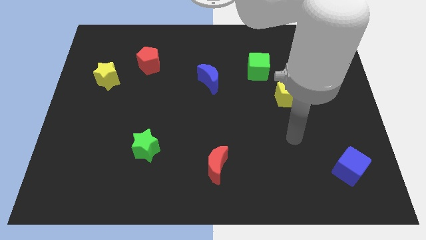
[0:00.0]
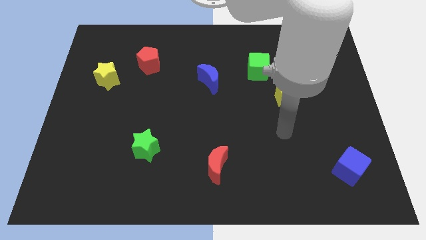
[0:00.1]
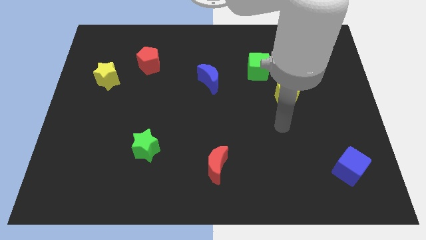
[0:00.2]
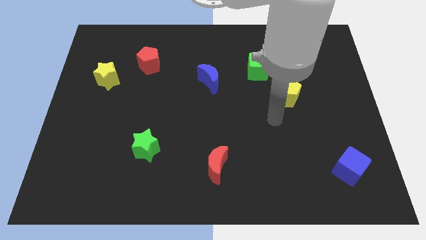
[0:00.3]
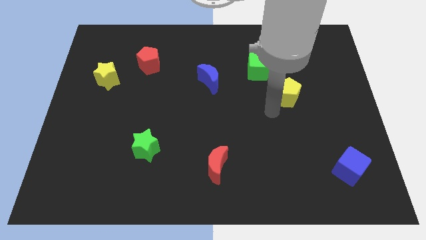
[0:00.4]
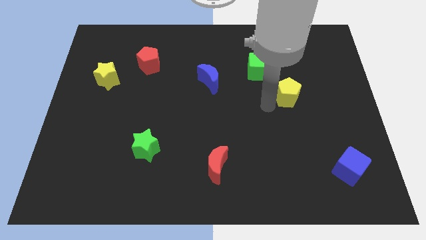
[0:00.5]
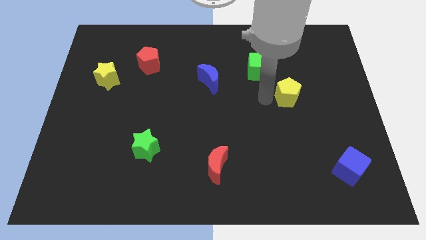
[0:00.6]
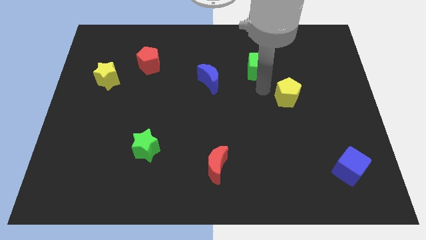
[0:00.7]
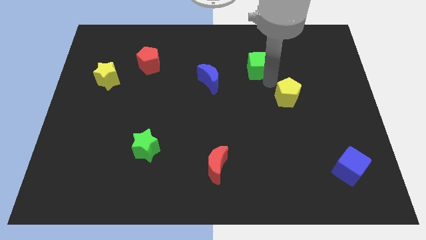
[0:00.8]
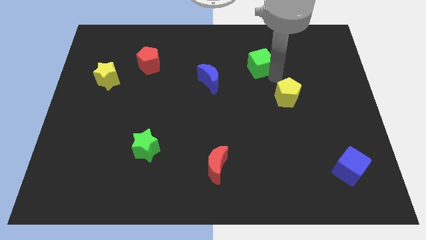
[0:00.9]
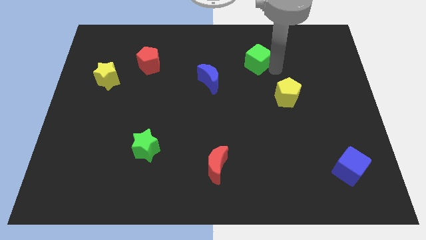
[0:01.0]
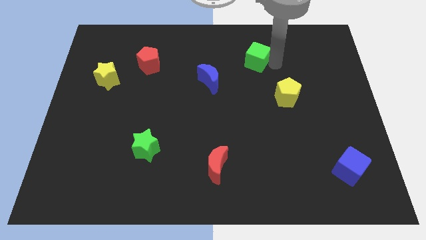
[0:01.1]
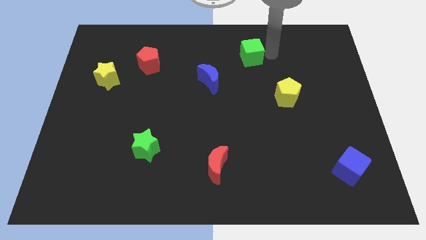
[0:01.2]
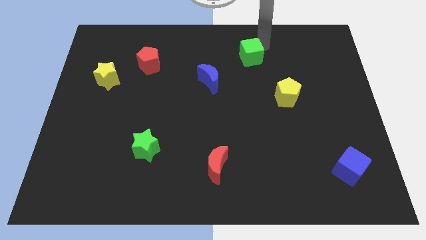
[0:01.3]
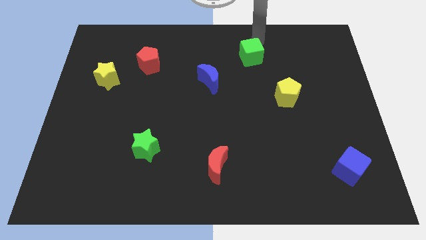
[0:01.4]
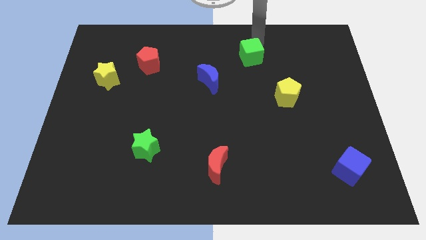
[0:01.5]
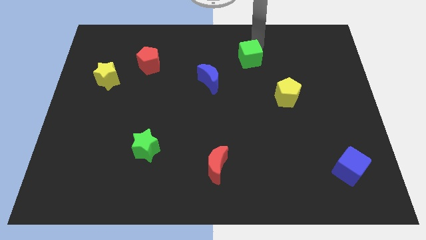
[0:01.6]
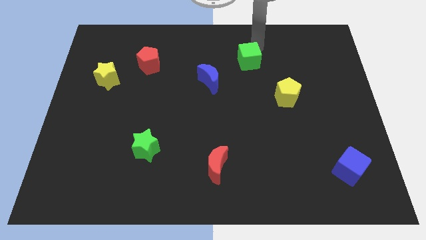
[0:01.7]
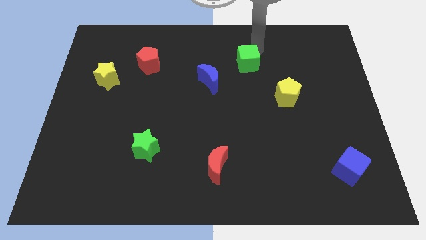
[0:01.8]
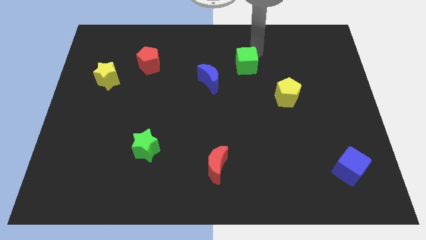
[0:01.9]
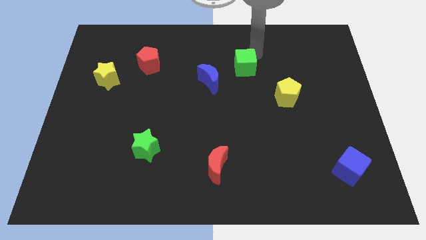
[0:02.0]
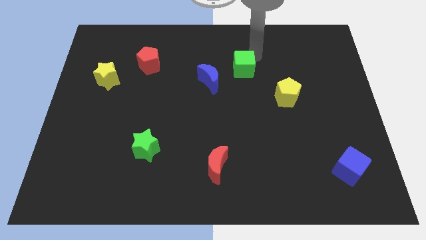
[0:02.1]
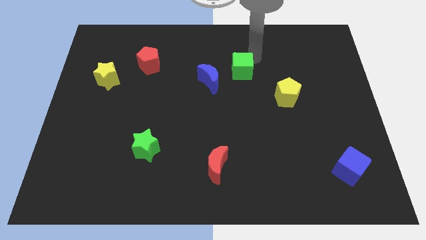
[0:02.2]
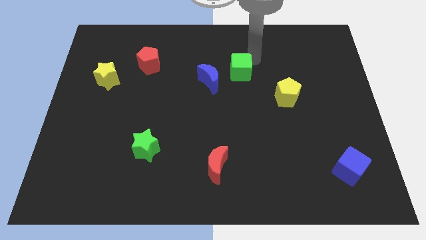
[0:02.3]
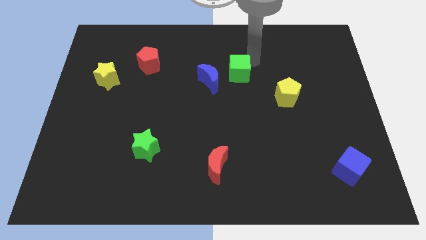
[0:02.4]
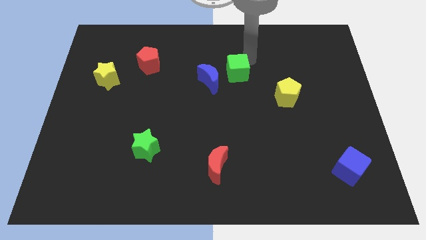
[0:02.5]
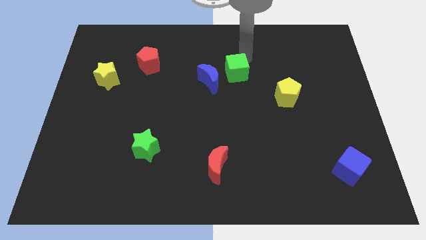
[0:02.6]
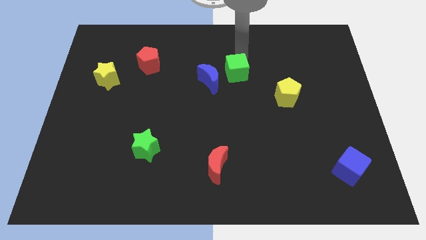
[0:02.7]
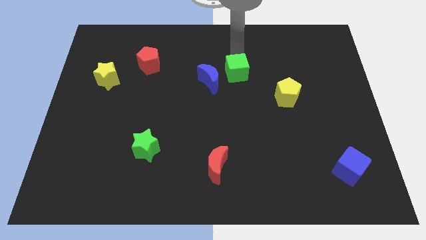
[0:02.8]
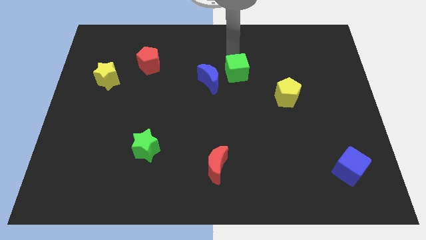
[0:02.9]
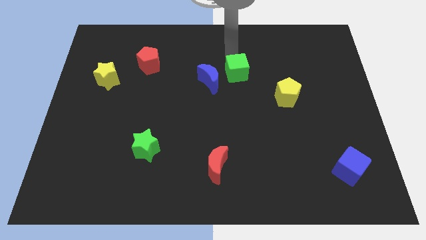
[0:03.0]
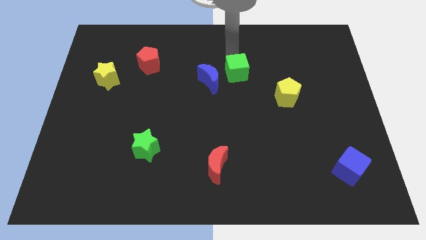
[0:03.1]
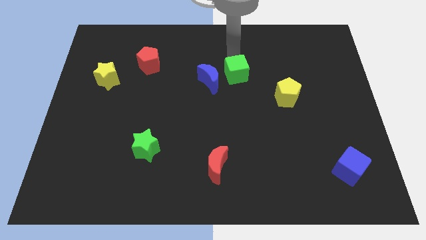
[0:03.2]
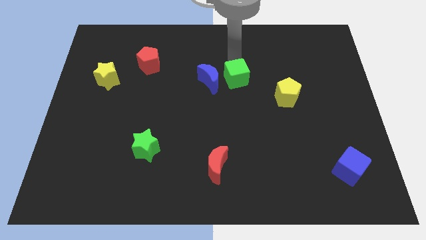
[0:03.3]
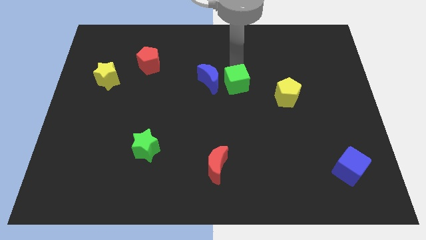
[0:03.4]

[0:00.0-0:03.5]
move the green cube diagonally downwards and left a little bit

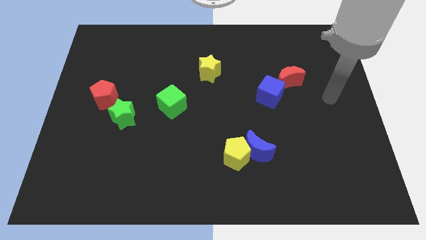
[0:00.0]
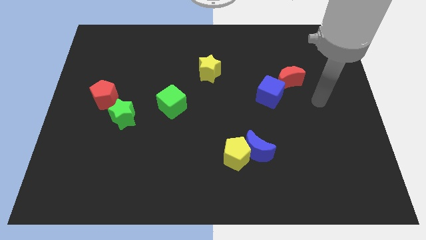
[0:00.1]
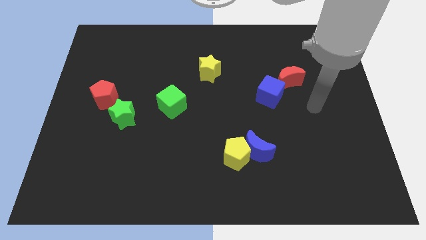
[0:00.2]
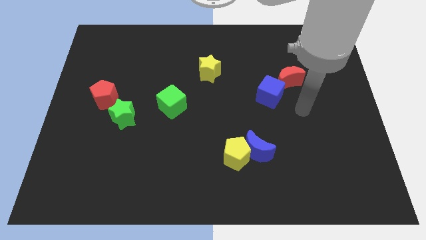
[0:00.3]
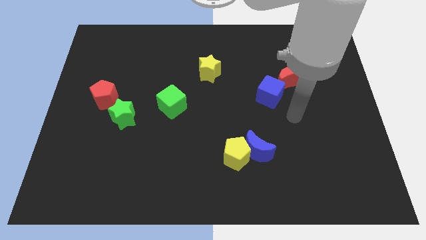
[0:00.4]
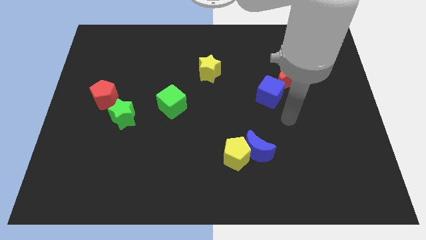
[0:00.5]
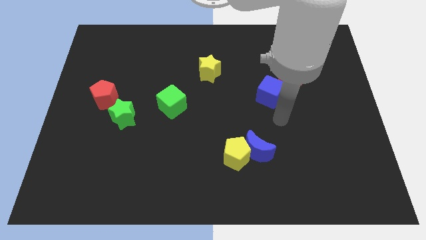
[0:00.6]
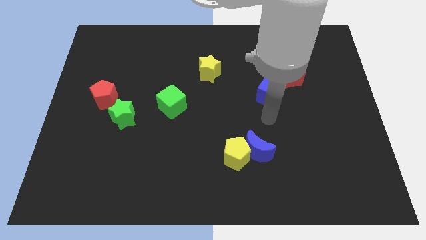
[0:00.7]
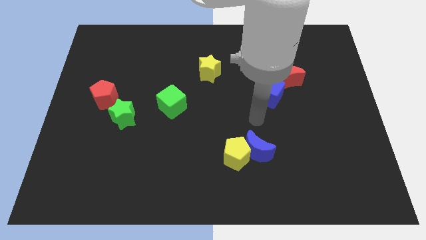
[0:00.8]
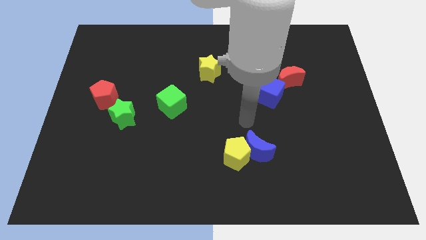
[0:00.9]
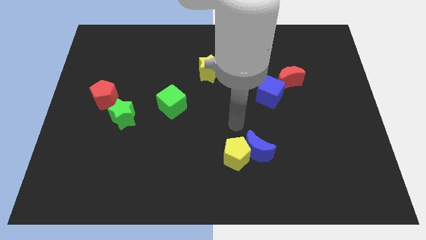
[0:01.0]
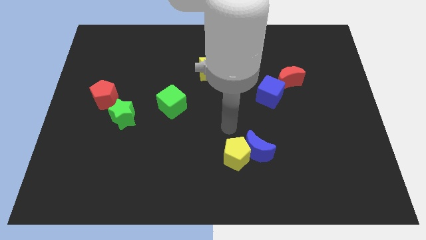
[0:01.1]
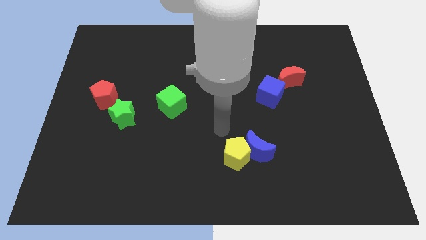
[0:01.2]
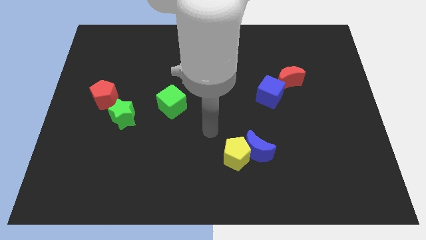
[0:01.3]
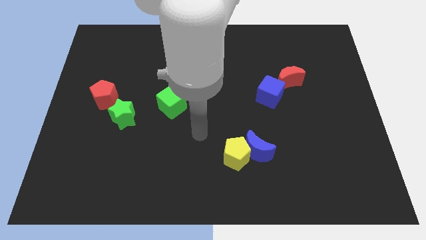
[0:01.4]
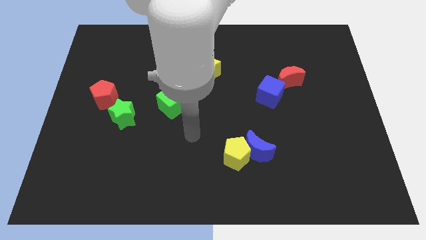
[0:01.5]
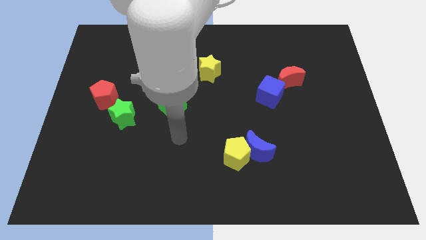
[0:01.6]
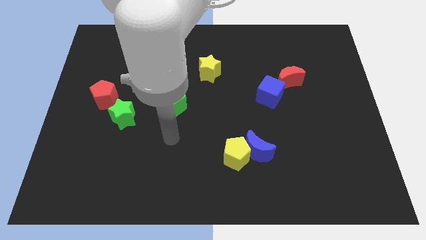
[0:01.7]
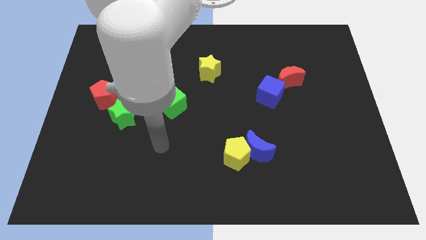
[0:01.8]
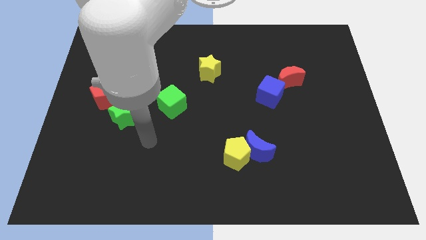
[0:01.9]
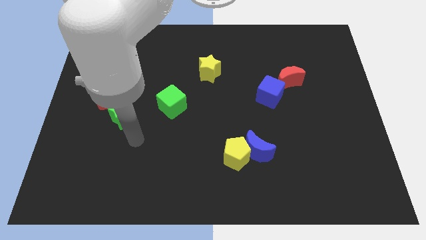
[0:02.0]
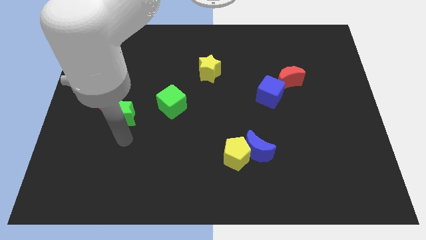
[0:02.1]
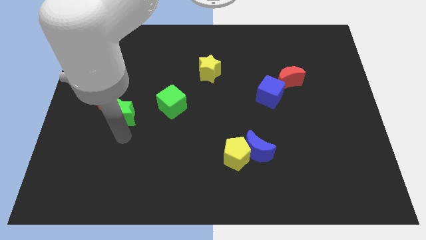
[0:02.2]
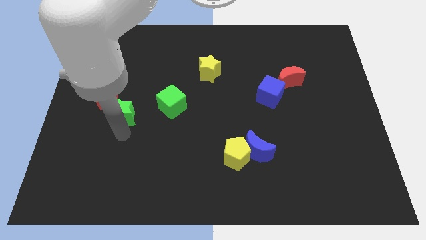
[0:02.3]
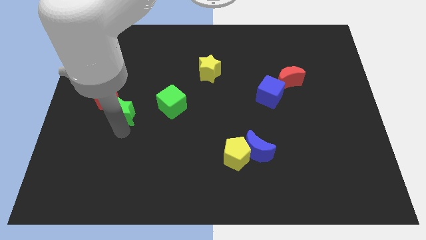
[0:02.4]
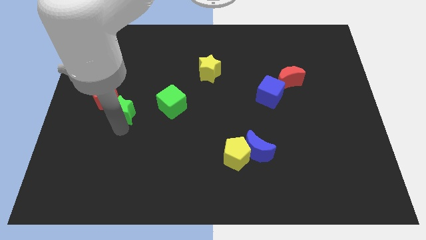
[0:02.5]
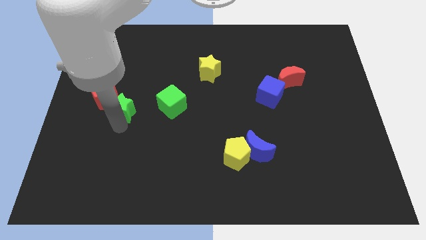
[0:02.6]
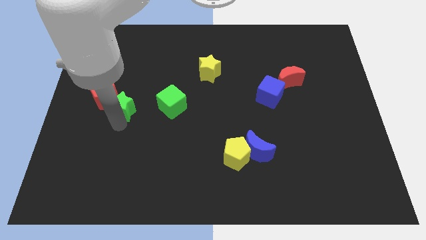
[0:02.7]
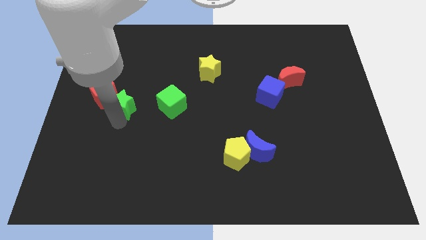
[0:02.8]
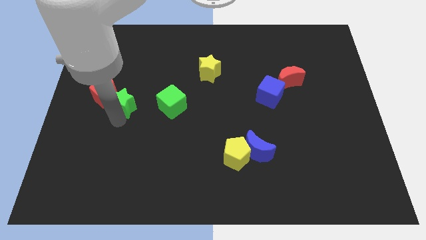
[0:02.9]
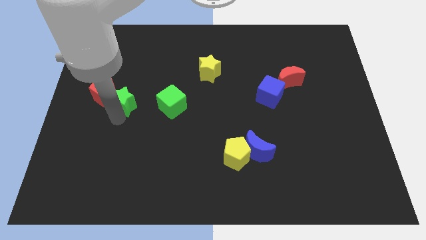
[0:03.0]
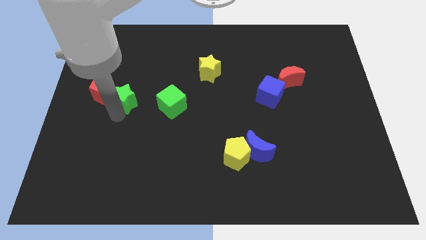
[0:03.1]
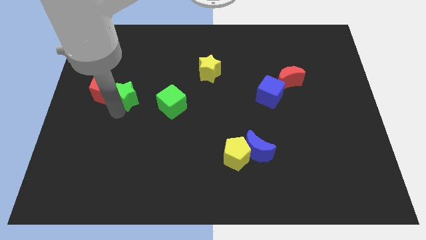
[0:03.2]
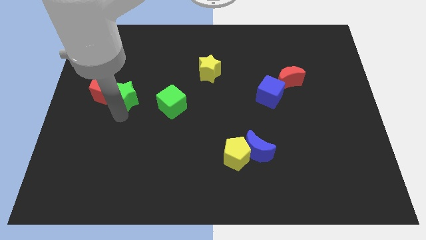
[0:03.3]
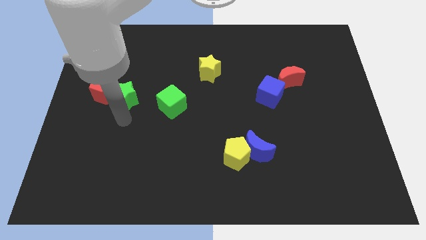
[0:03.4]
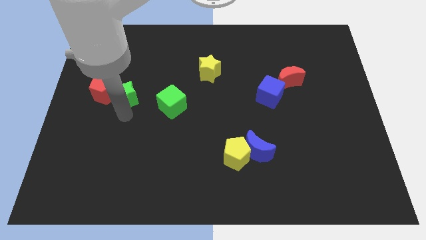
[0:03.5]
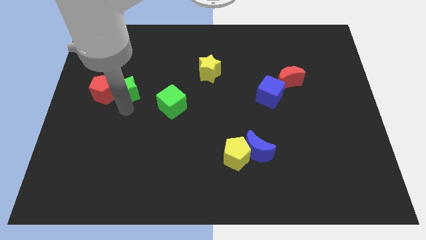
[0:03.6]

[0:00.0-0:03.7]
push the green star a little bit up

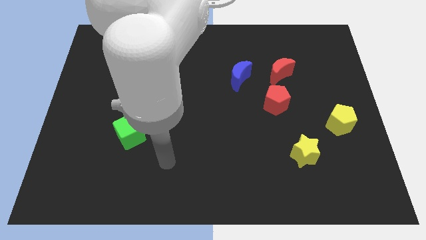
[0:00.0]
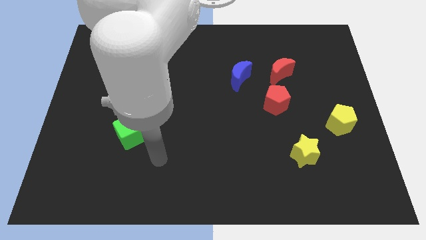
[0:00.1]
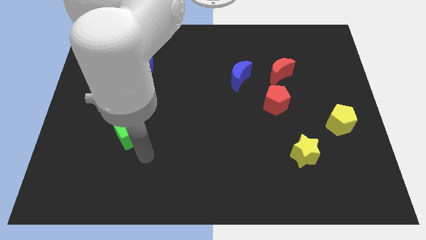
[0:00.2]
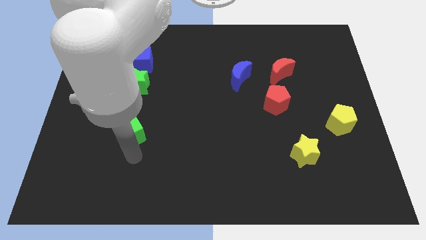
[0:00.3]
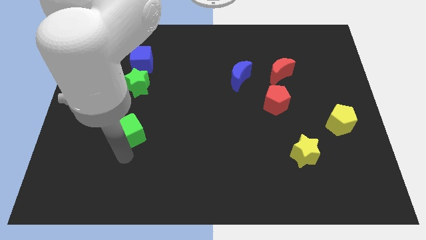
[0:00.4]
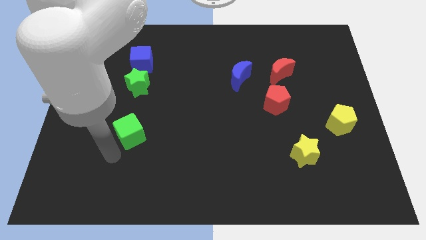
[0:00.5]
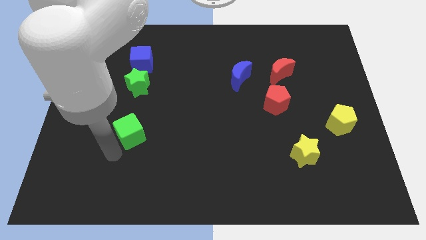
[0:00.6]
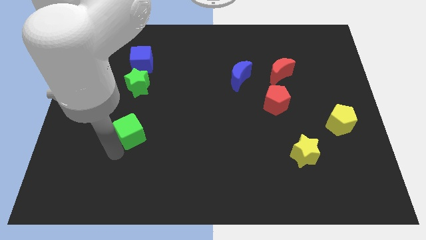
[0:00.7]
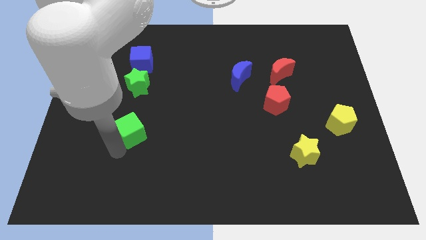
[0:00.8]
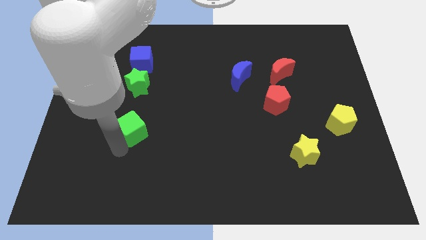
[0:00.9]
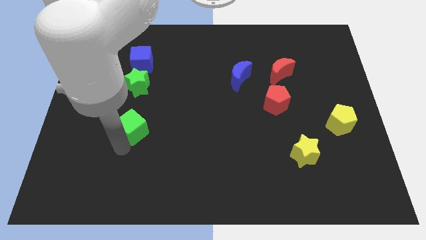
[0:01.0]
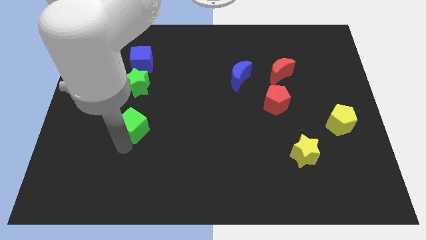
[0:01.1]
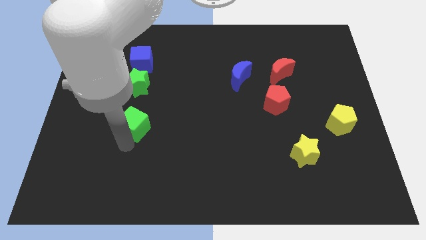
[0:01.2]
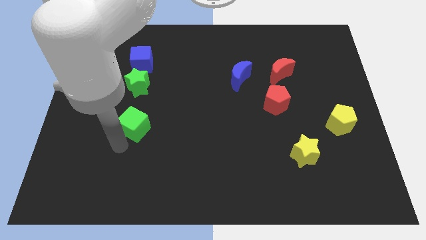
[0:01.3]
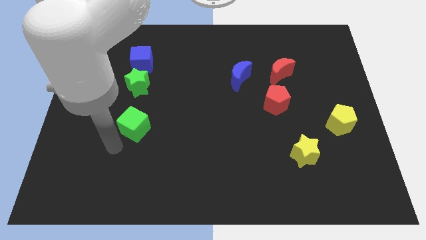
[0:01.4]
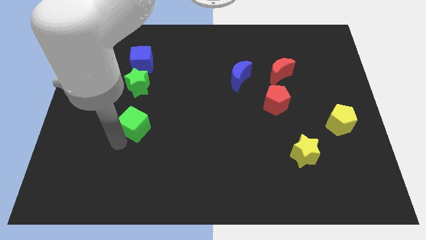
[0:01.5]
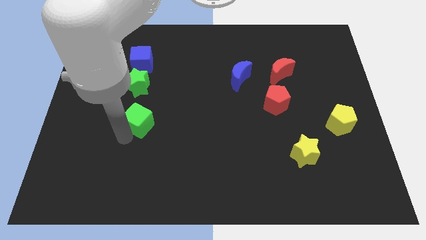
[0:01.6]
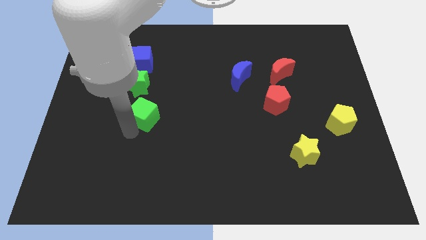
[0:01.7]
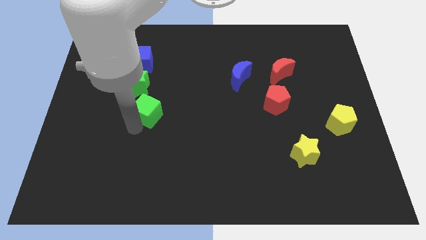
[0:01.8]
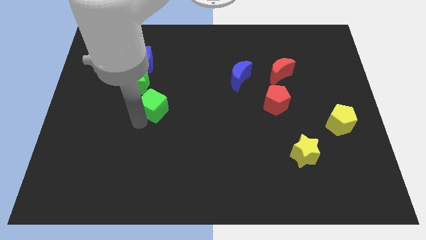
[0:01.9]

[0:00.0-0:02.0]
slightly move the green cube upwards and right
